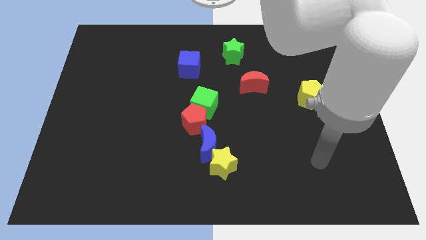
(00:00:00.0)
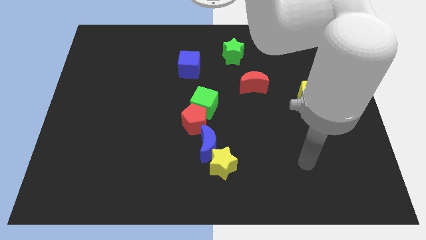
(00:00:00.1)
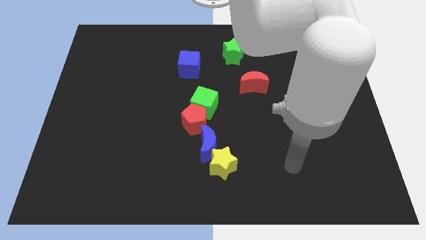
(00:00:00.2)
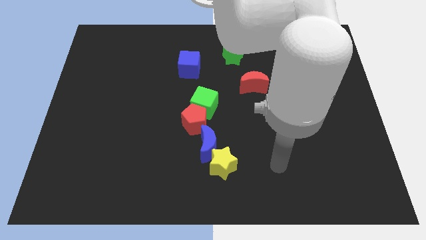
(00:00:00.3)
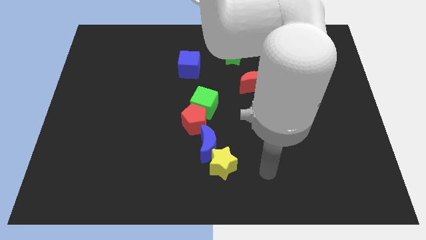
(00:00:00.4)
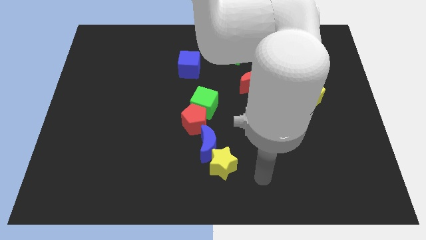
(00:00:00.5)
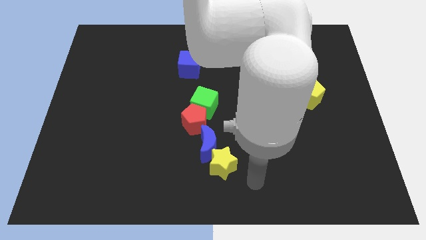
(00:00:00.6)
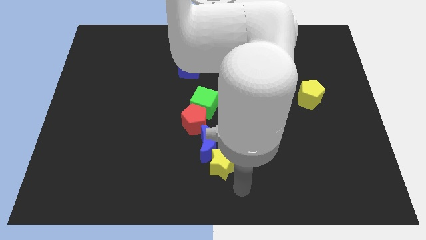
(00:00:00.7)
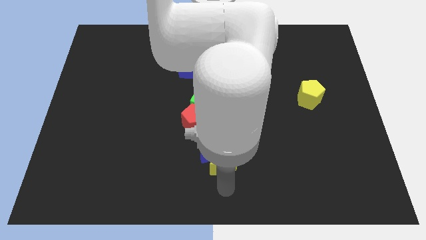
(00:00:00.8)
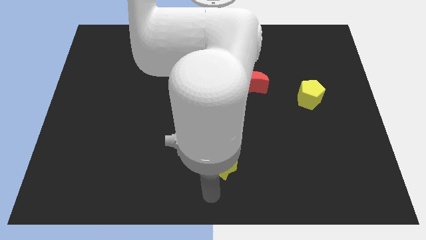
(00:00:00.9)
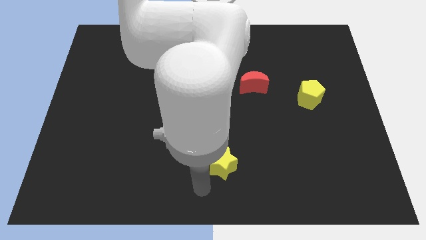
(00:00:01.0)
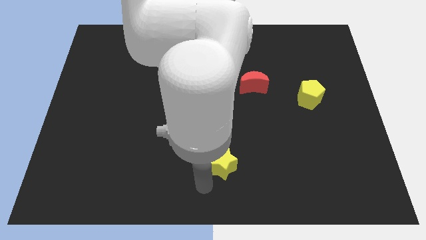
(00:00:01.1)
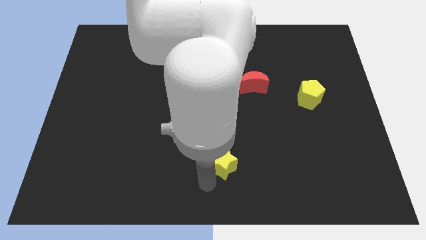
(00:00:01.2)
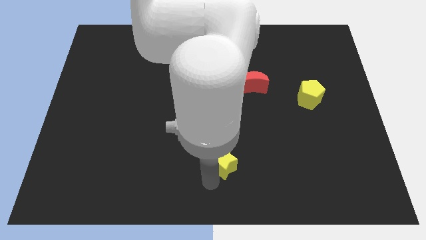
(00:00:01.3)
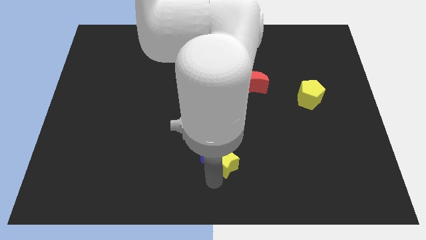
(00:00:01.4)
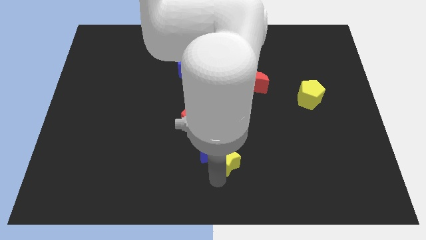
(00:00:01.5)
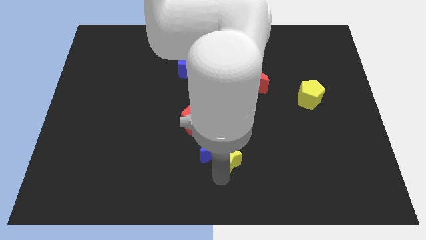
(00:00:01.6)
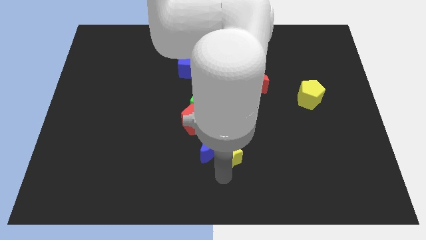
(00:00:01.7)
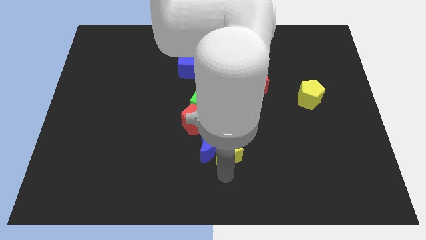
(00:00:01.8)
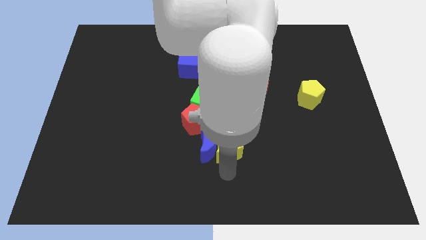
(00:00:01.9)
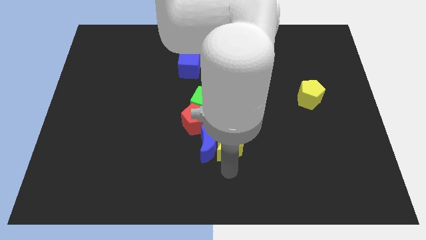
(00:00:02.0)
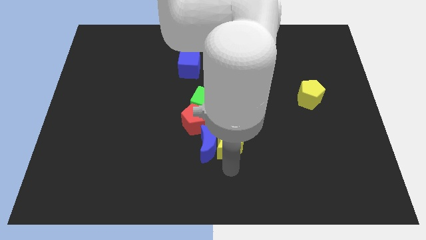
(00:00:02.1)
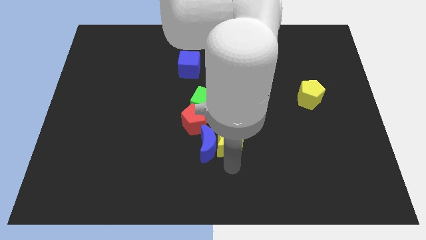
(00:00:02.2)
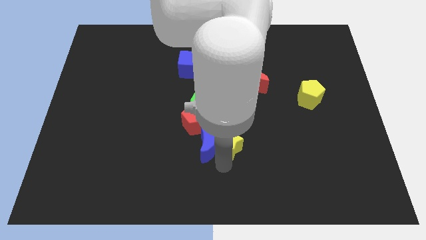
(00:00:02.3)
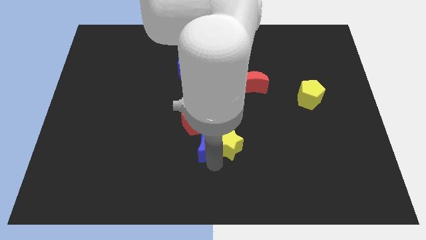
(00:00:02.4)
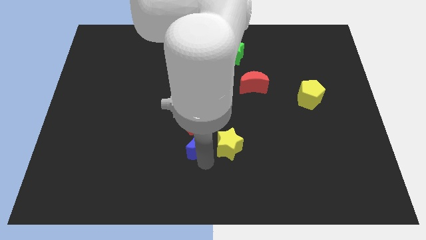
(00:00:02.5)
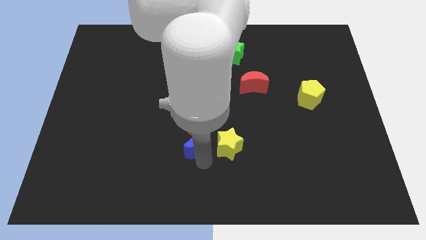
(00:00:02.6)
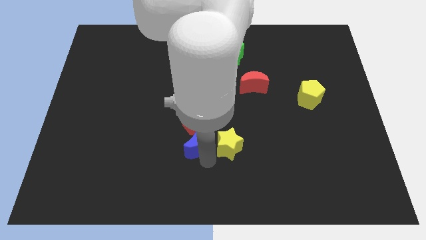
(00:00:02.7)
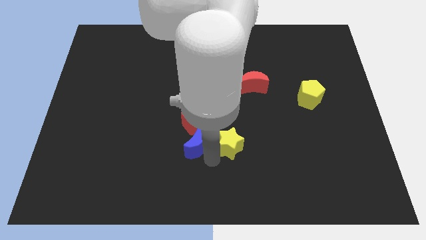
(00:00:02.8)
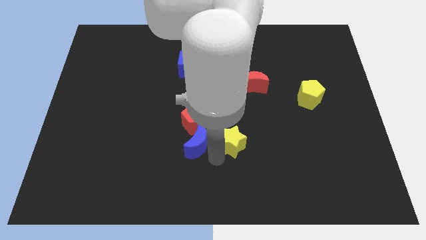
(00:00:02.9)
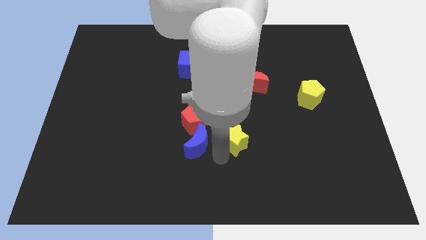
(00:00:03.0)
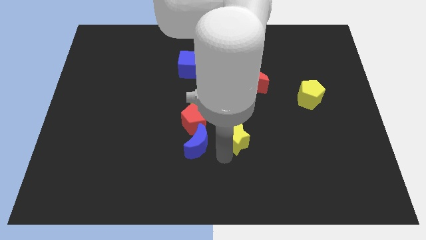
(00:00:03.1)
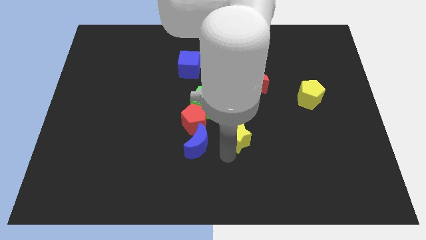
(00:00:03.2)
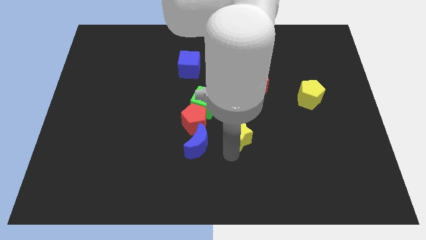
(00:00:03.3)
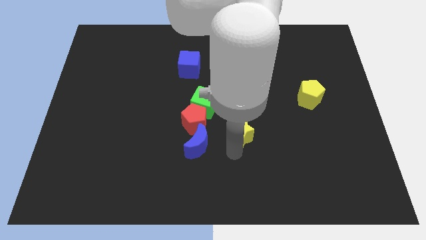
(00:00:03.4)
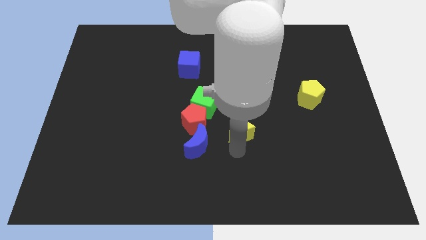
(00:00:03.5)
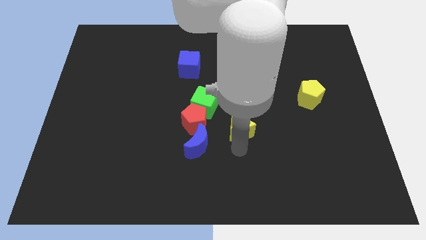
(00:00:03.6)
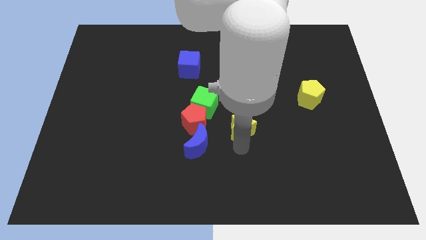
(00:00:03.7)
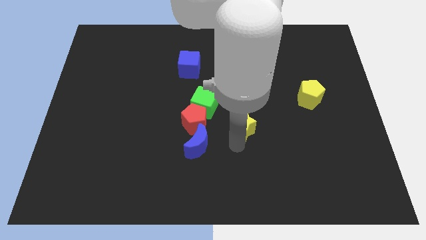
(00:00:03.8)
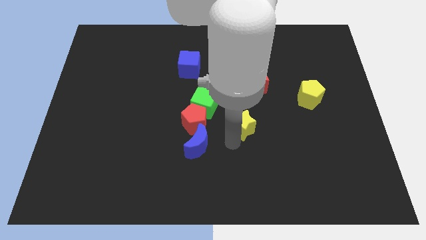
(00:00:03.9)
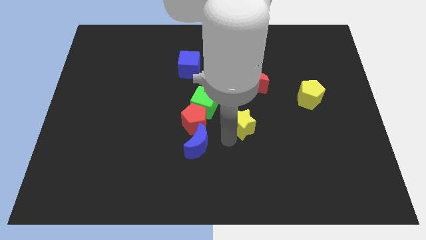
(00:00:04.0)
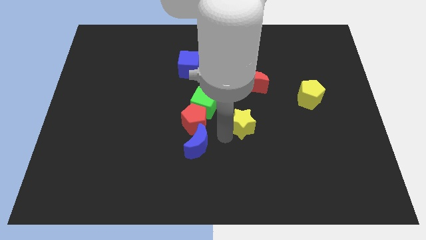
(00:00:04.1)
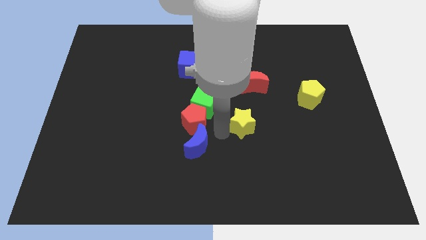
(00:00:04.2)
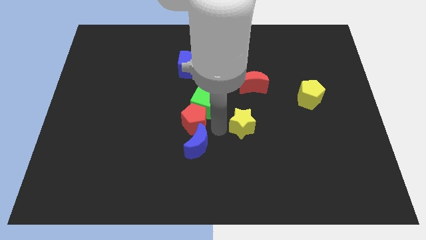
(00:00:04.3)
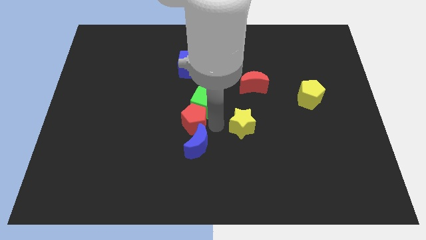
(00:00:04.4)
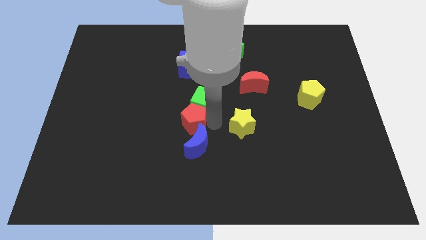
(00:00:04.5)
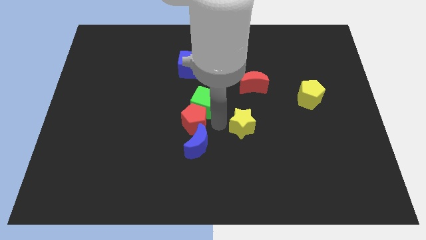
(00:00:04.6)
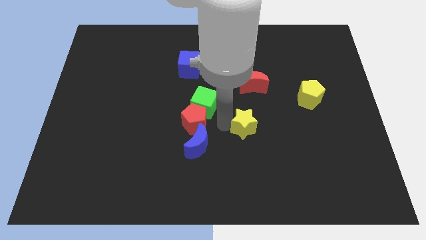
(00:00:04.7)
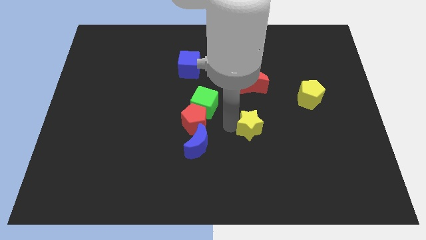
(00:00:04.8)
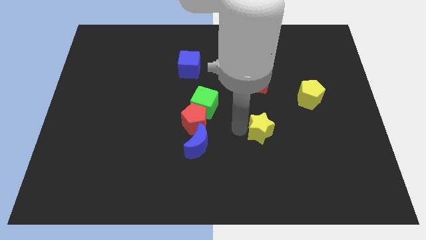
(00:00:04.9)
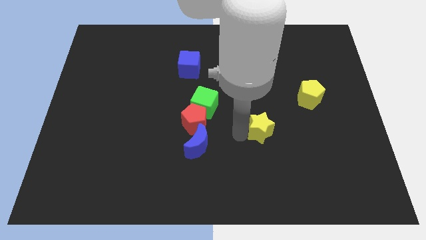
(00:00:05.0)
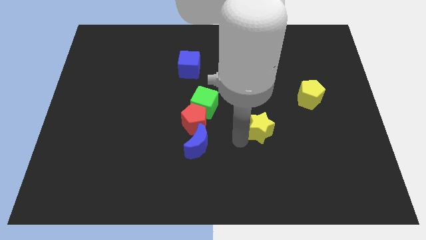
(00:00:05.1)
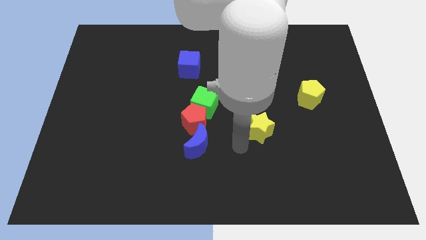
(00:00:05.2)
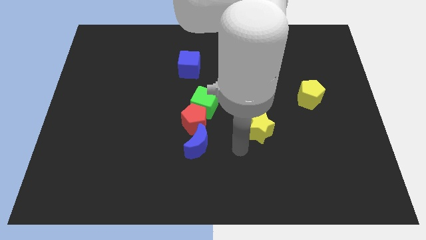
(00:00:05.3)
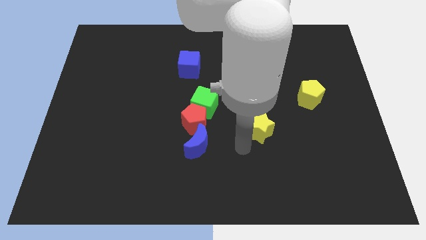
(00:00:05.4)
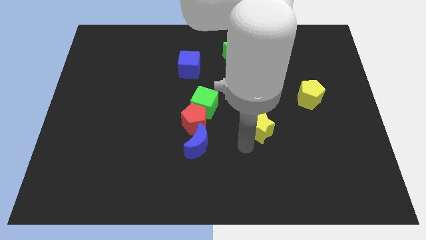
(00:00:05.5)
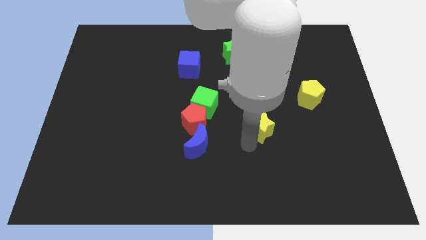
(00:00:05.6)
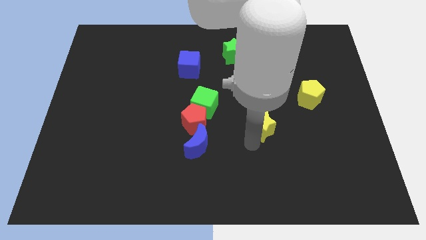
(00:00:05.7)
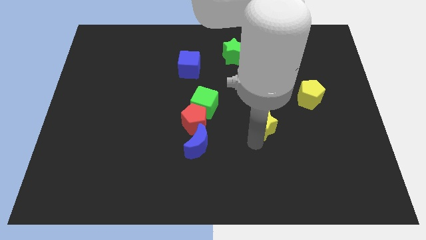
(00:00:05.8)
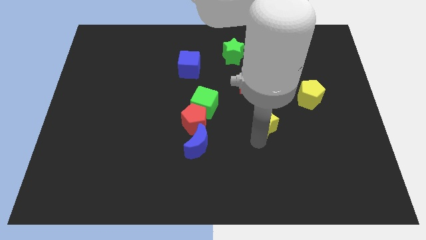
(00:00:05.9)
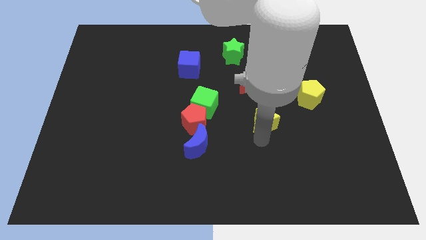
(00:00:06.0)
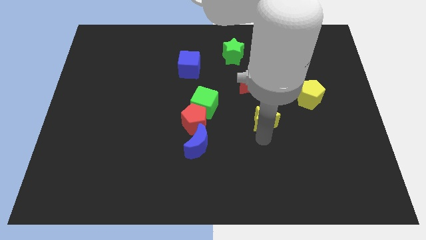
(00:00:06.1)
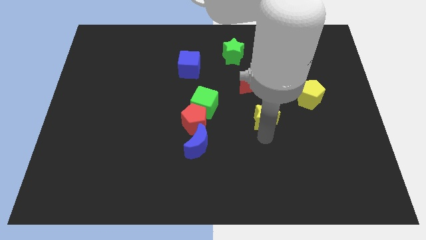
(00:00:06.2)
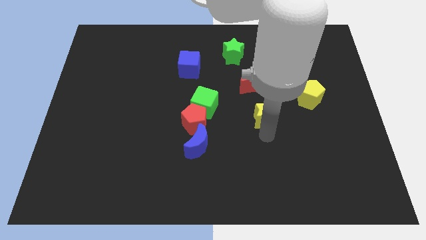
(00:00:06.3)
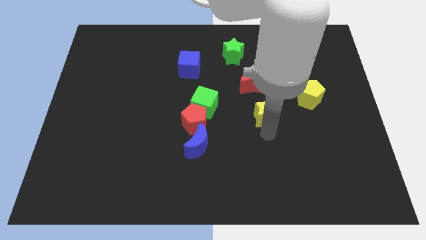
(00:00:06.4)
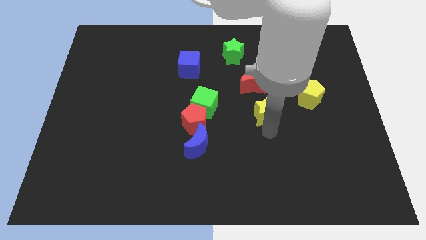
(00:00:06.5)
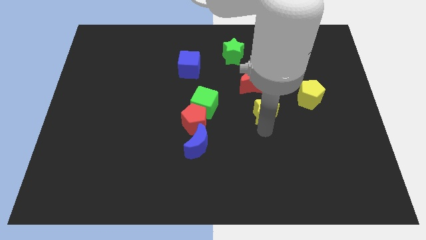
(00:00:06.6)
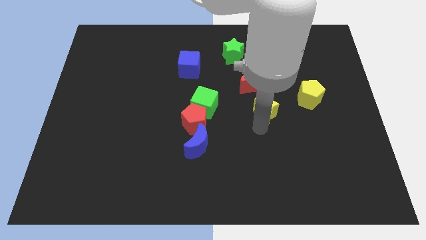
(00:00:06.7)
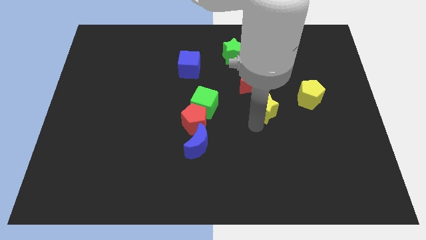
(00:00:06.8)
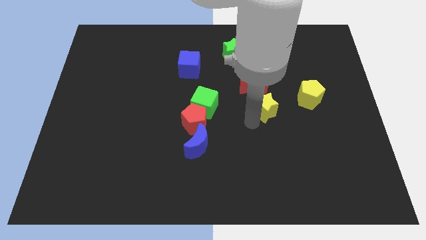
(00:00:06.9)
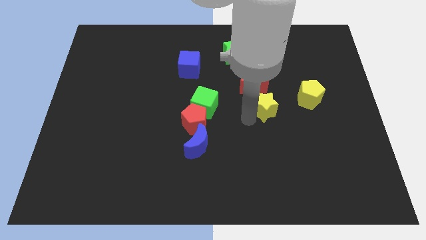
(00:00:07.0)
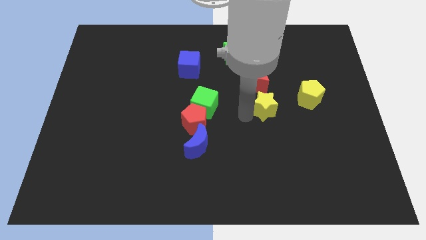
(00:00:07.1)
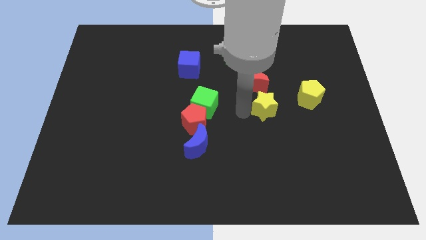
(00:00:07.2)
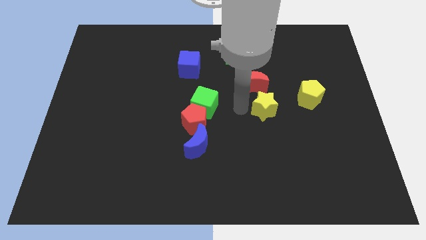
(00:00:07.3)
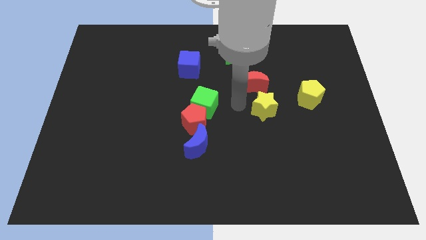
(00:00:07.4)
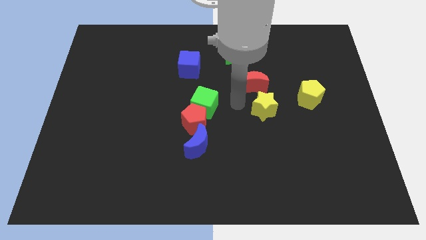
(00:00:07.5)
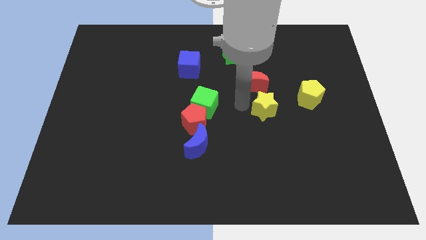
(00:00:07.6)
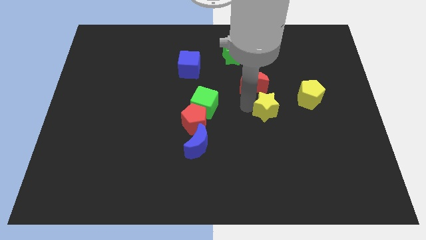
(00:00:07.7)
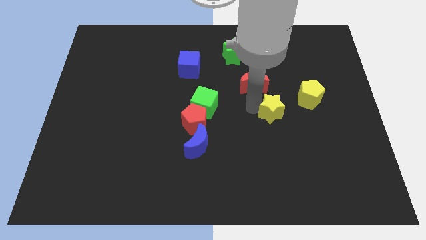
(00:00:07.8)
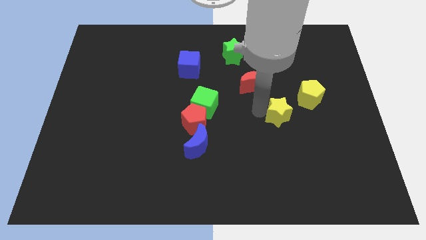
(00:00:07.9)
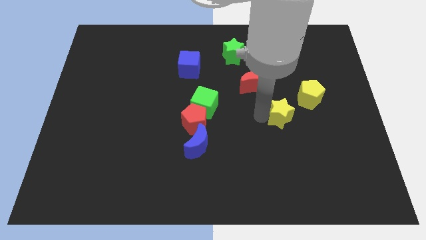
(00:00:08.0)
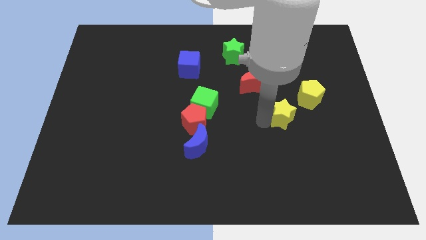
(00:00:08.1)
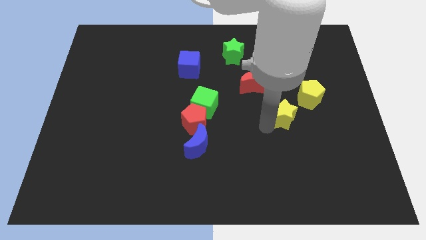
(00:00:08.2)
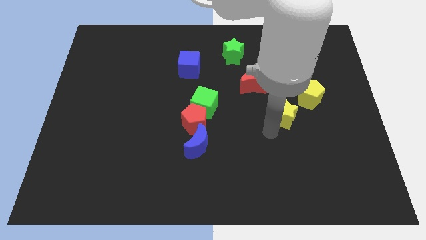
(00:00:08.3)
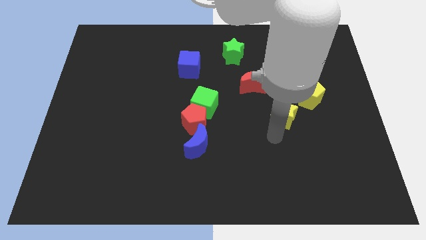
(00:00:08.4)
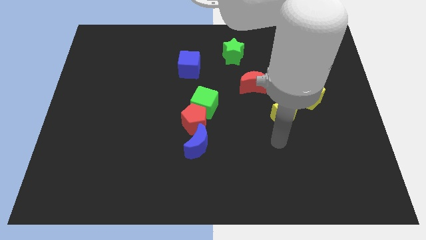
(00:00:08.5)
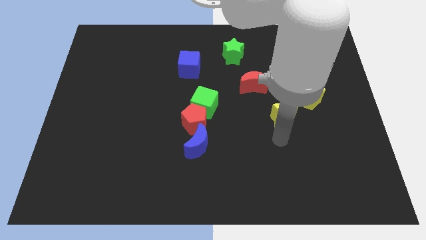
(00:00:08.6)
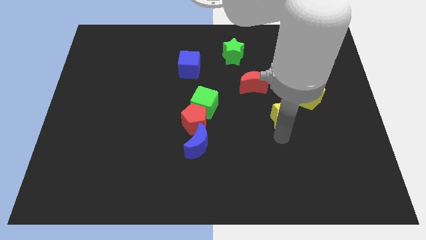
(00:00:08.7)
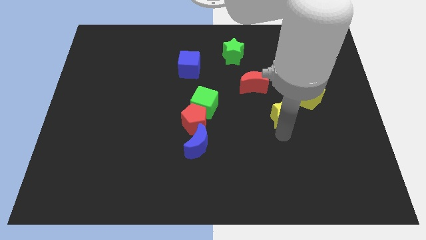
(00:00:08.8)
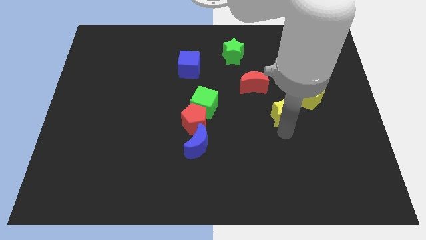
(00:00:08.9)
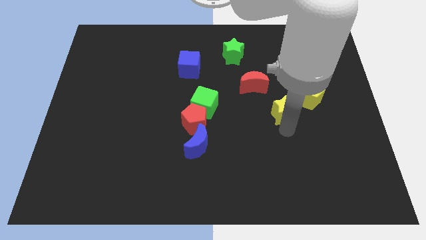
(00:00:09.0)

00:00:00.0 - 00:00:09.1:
push the yellow star upwards and then to the right
